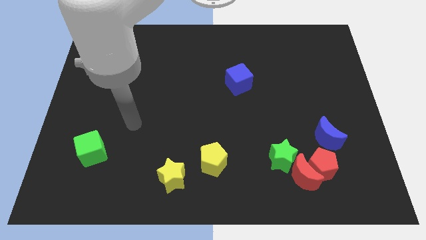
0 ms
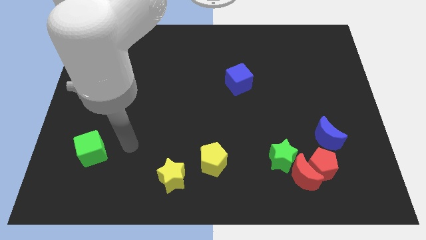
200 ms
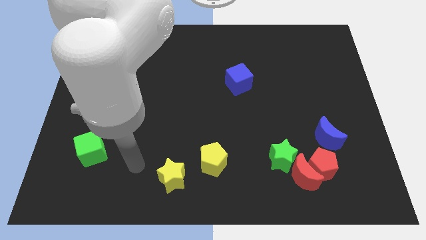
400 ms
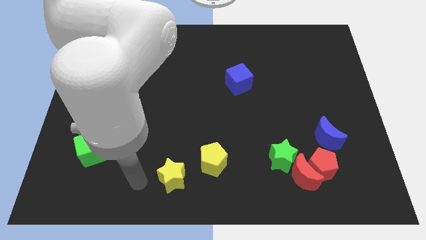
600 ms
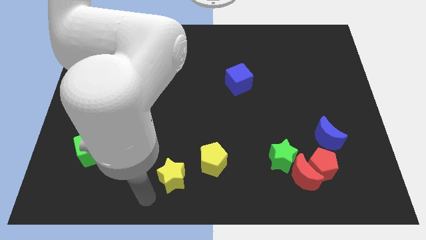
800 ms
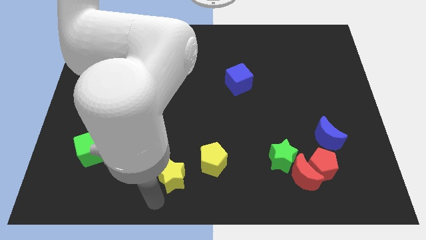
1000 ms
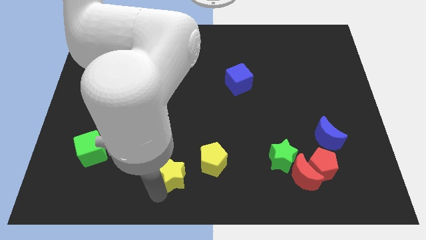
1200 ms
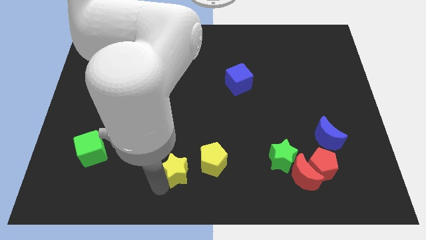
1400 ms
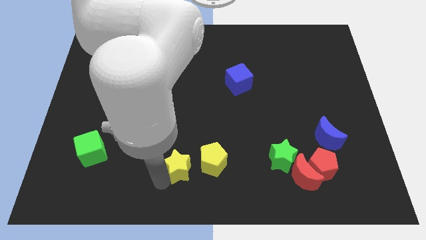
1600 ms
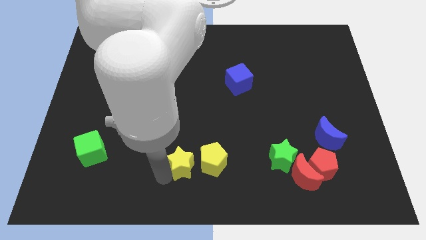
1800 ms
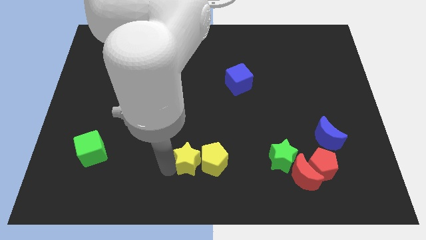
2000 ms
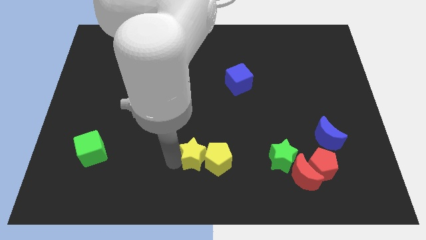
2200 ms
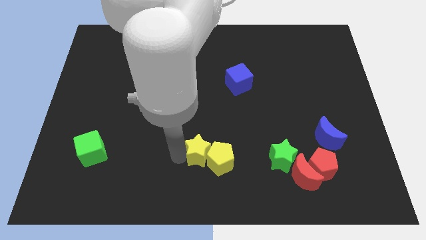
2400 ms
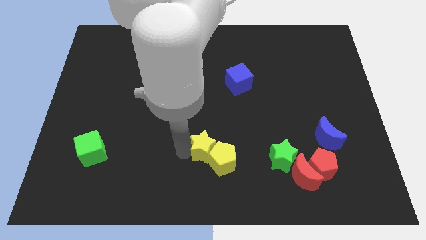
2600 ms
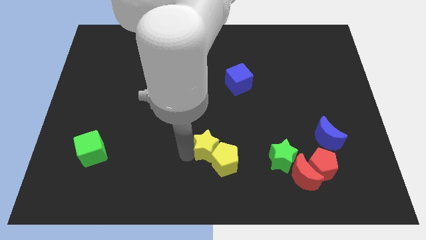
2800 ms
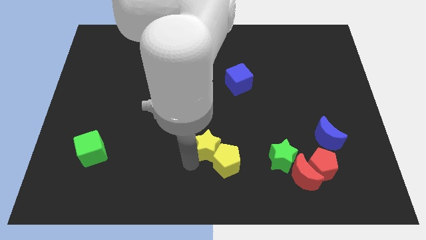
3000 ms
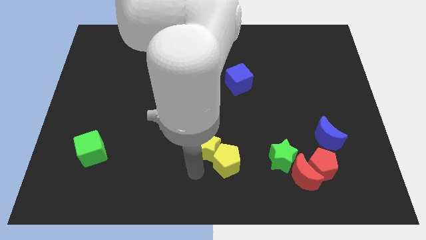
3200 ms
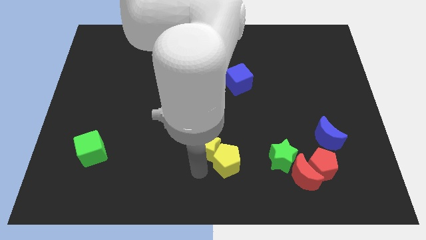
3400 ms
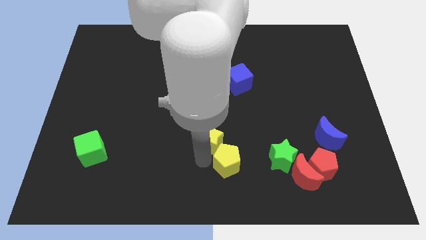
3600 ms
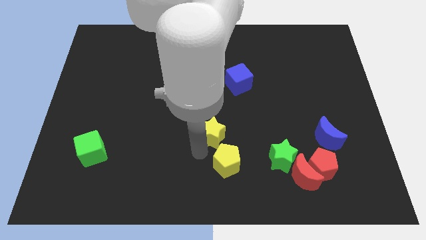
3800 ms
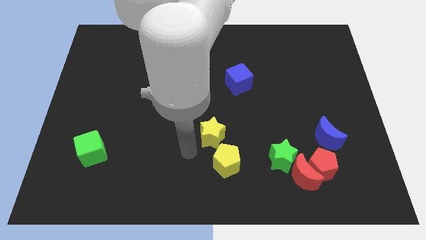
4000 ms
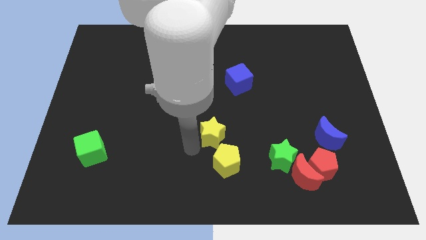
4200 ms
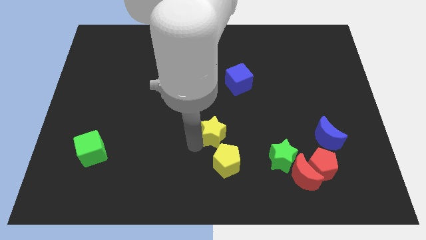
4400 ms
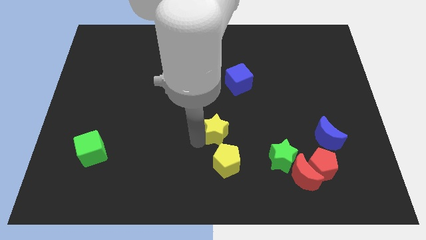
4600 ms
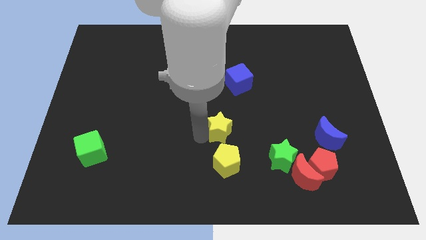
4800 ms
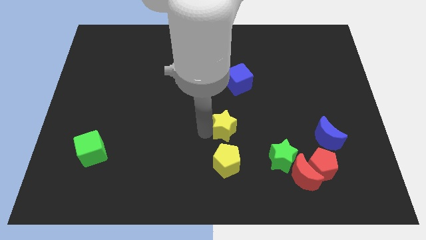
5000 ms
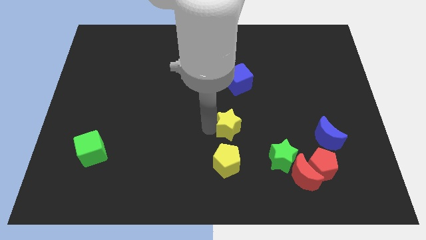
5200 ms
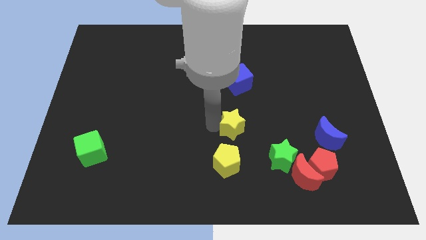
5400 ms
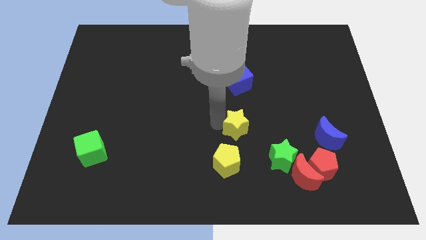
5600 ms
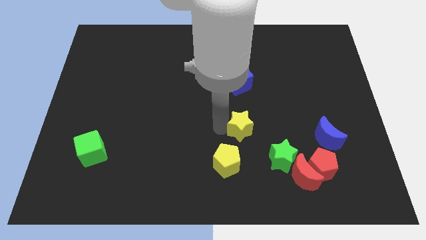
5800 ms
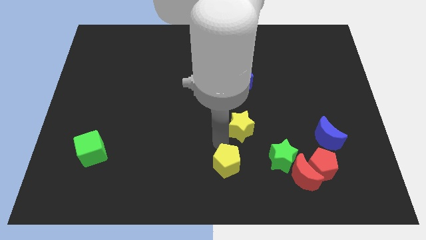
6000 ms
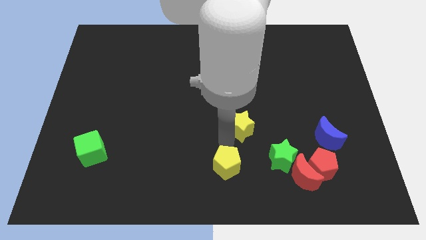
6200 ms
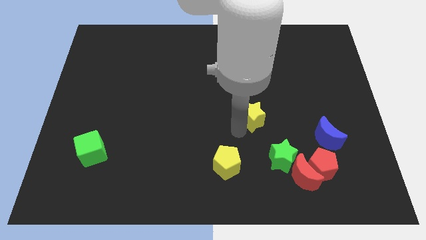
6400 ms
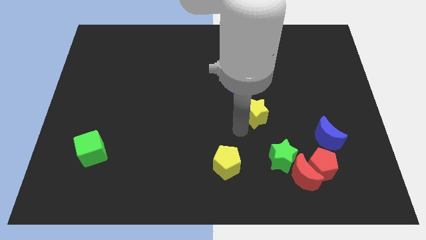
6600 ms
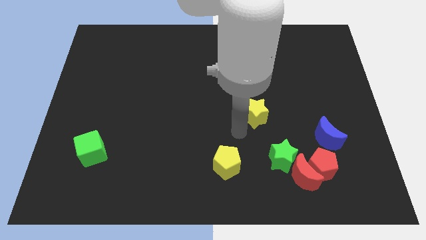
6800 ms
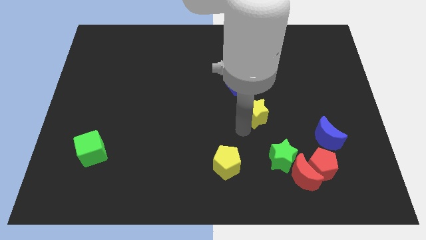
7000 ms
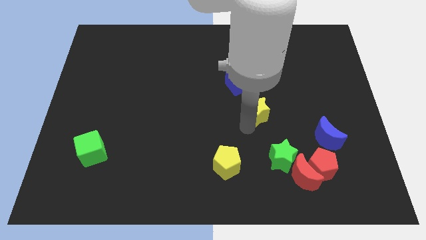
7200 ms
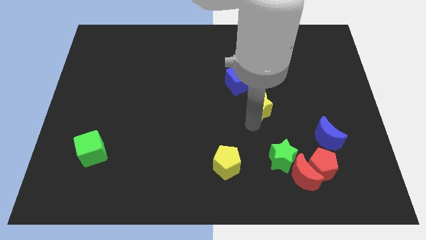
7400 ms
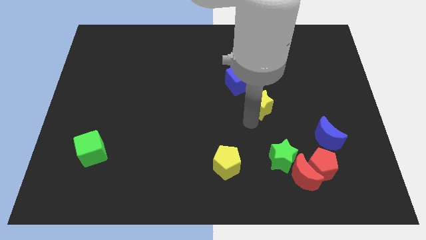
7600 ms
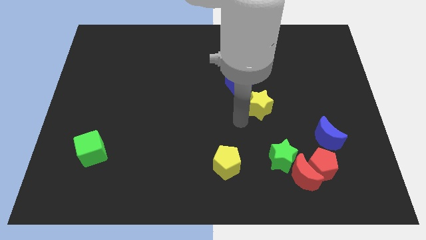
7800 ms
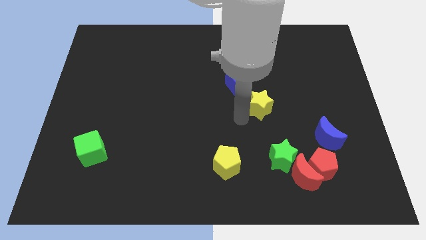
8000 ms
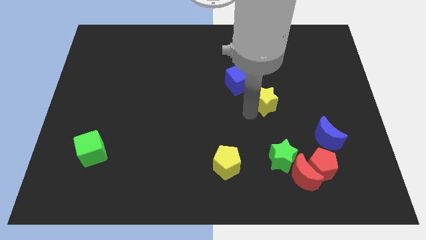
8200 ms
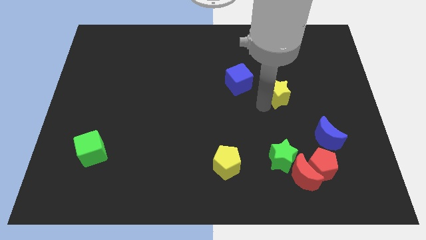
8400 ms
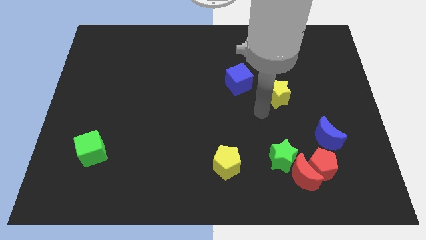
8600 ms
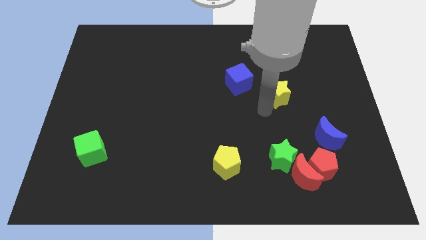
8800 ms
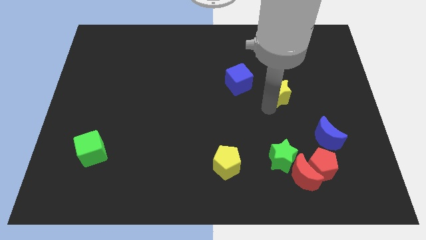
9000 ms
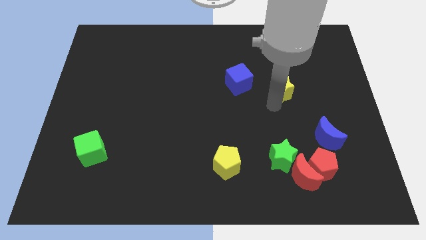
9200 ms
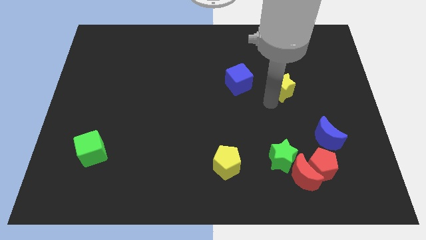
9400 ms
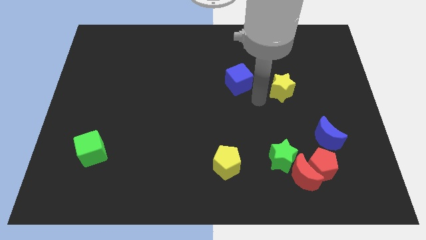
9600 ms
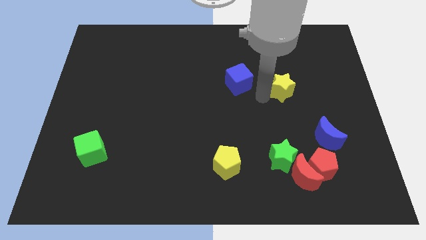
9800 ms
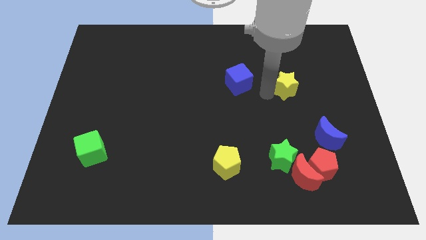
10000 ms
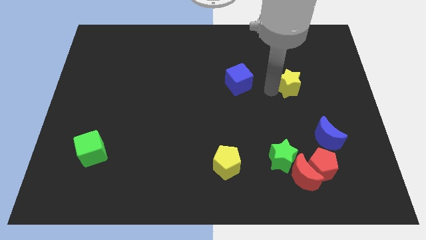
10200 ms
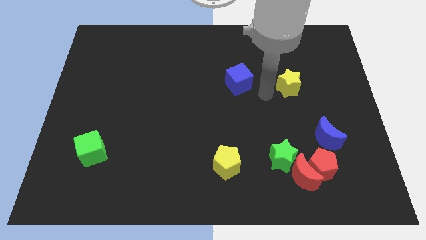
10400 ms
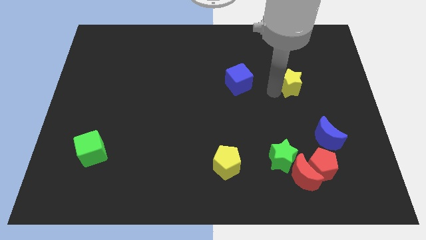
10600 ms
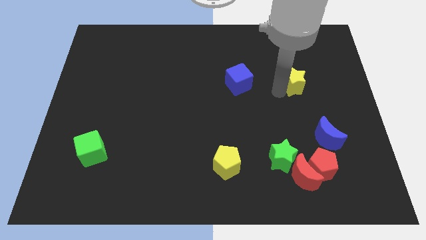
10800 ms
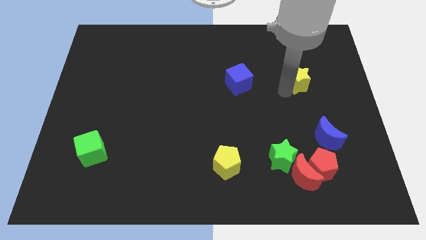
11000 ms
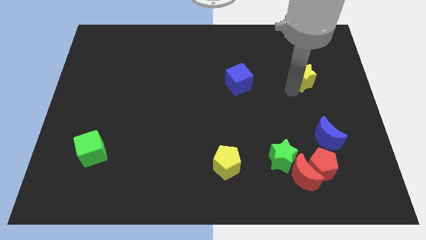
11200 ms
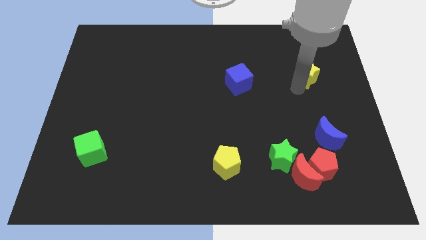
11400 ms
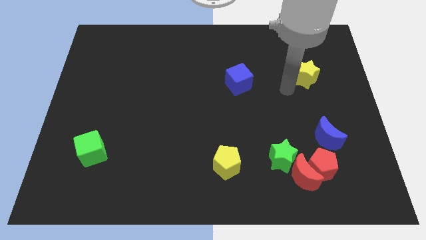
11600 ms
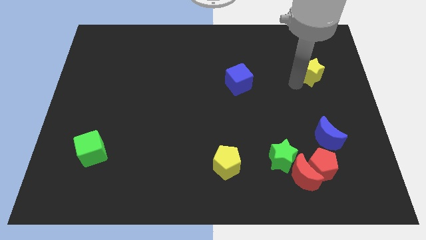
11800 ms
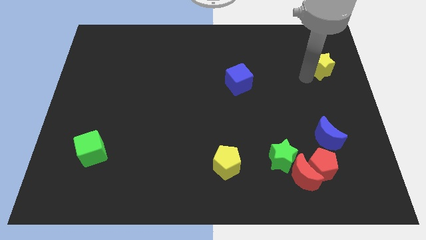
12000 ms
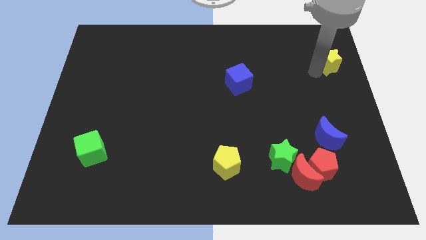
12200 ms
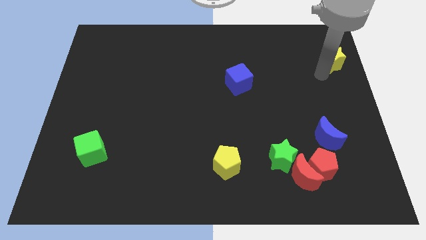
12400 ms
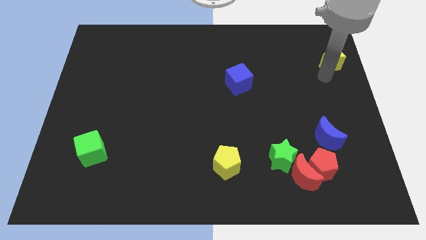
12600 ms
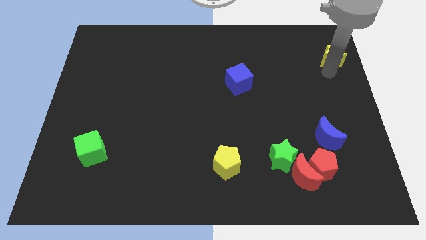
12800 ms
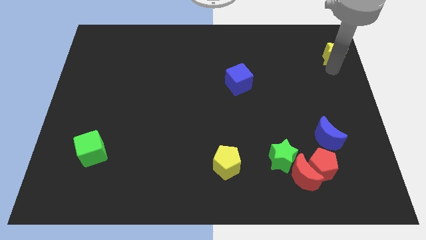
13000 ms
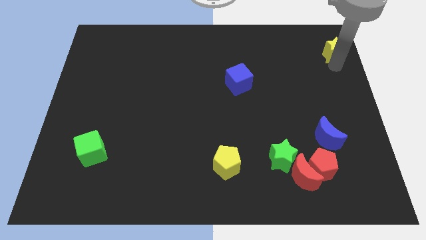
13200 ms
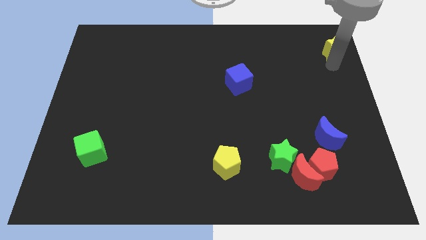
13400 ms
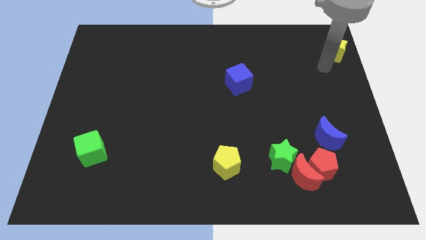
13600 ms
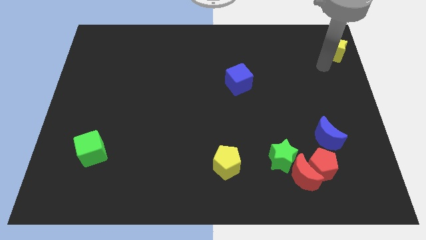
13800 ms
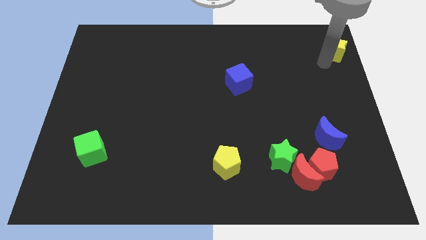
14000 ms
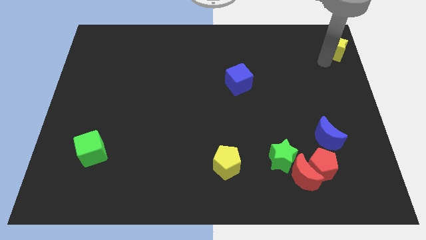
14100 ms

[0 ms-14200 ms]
slide the yellow star to the upper right corner
